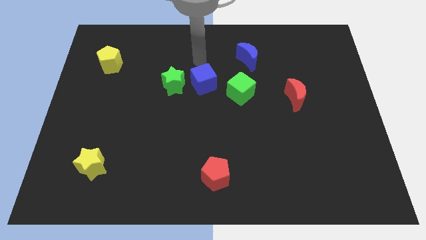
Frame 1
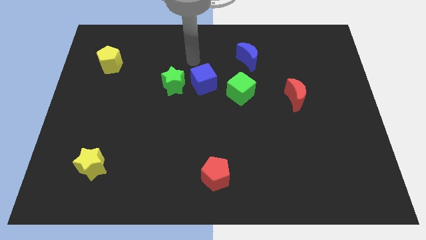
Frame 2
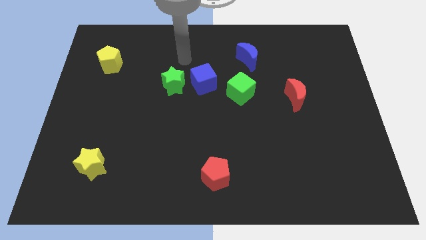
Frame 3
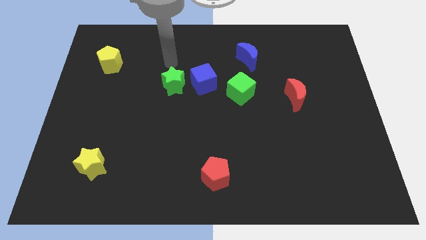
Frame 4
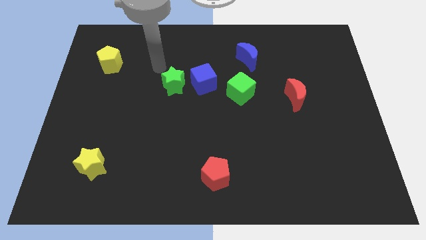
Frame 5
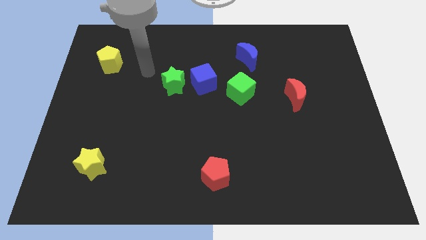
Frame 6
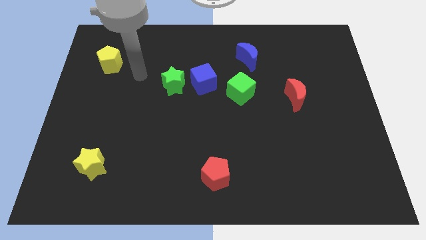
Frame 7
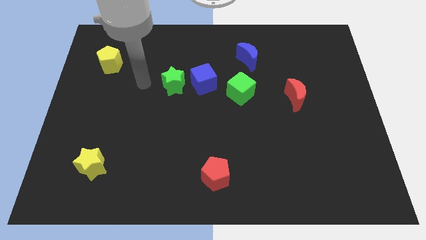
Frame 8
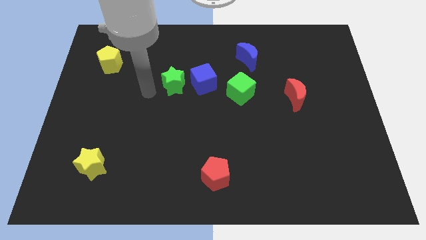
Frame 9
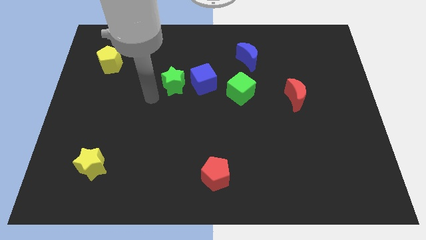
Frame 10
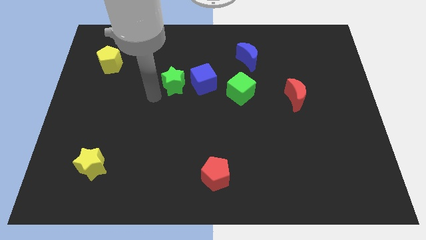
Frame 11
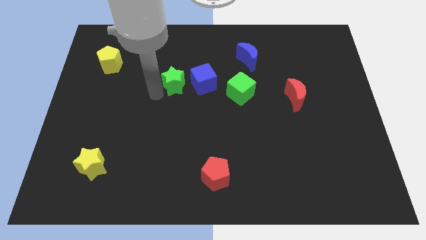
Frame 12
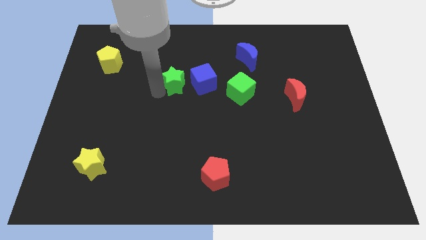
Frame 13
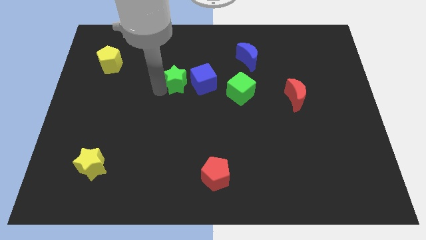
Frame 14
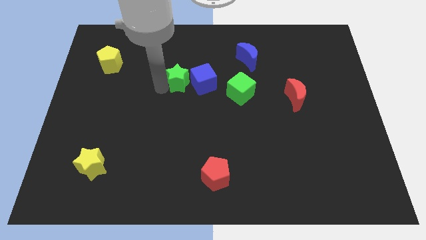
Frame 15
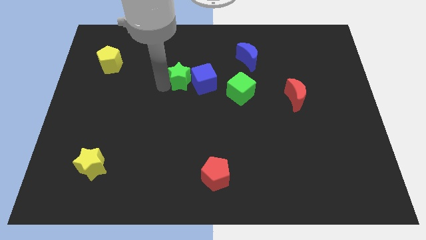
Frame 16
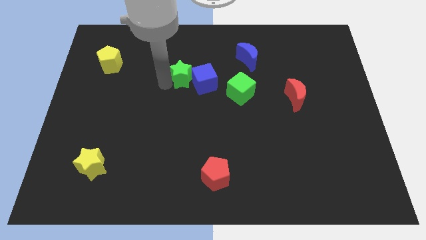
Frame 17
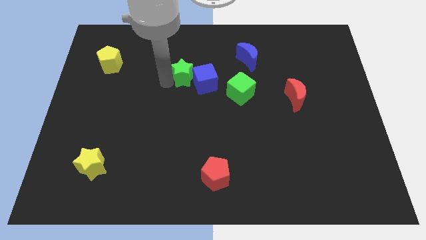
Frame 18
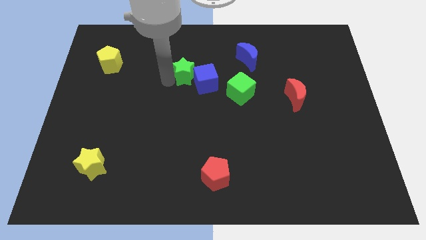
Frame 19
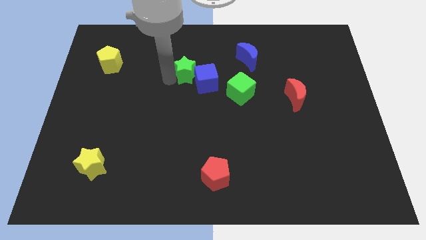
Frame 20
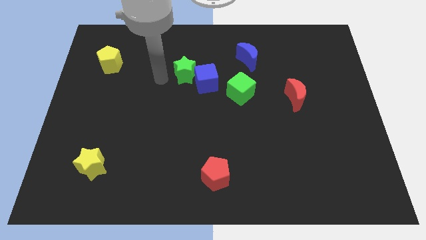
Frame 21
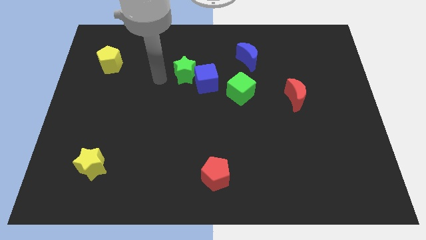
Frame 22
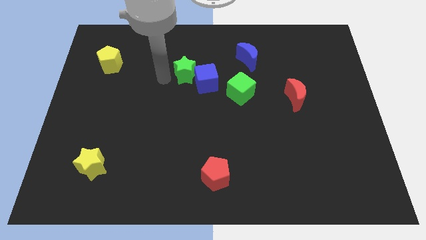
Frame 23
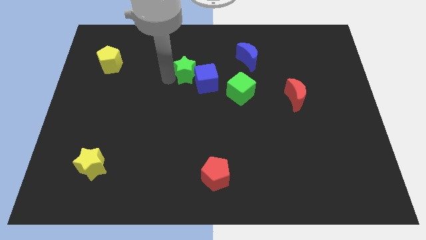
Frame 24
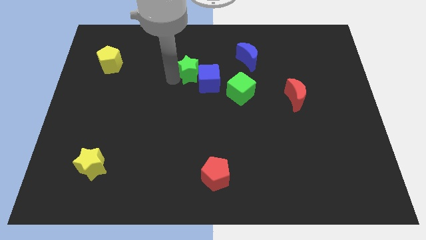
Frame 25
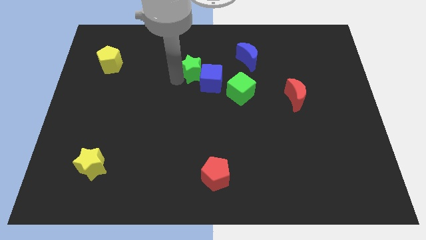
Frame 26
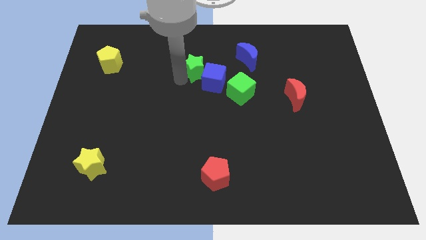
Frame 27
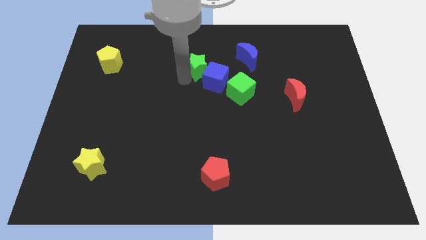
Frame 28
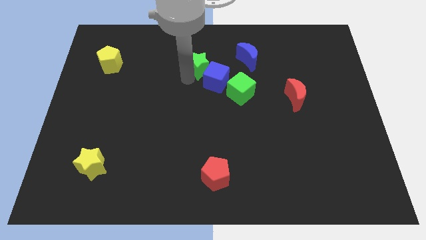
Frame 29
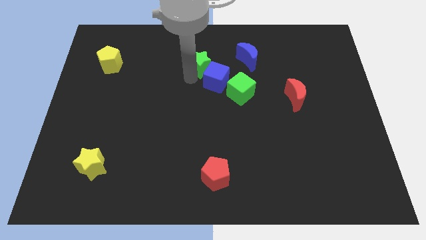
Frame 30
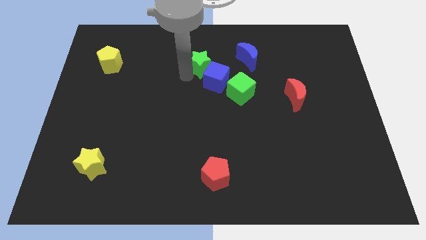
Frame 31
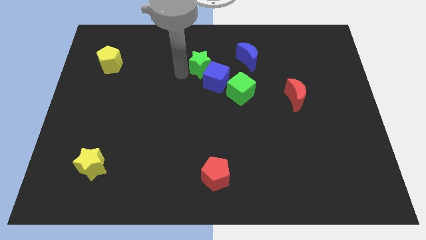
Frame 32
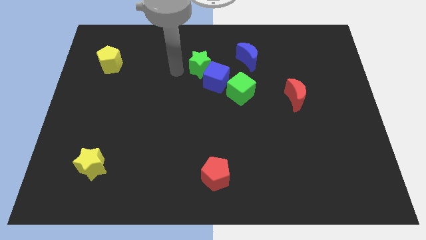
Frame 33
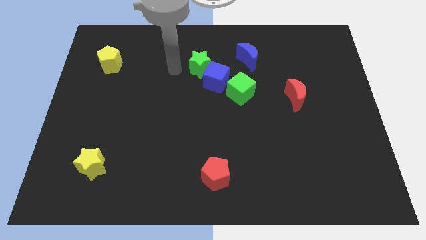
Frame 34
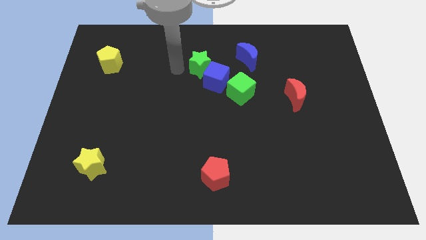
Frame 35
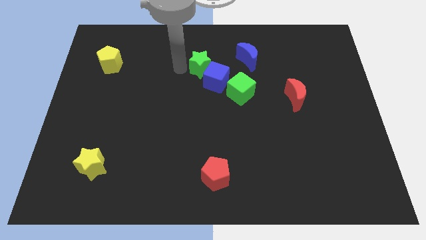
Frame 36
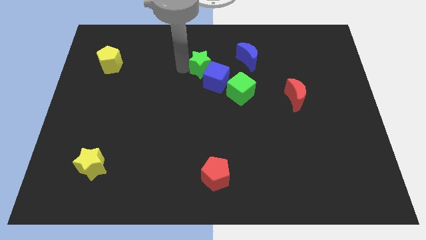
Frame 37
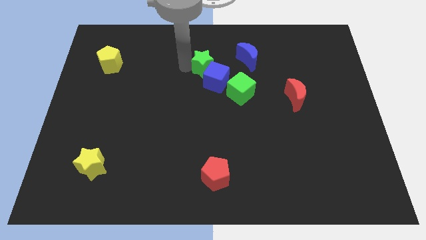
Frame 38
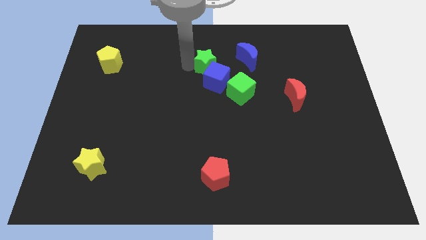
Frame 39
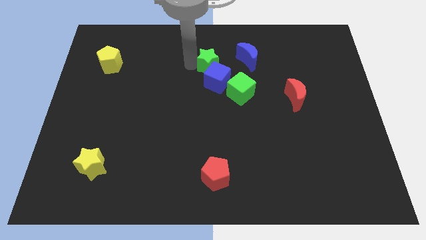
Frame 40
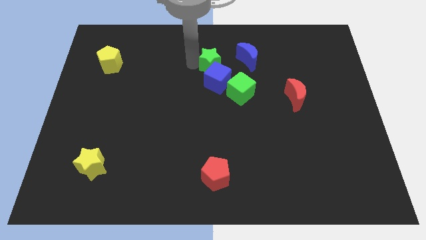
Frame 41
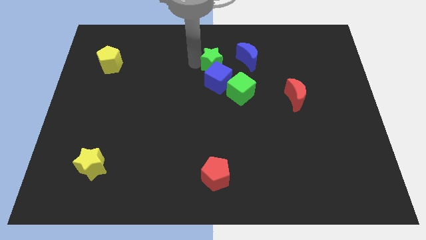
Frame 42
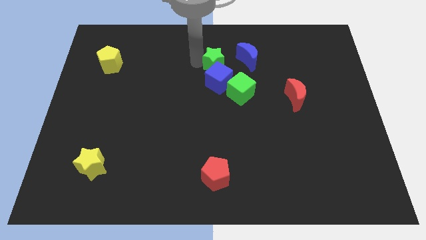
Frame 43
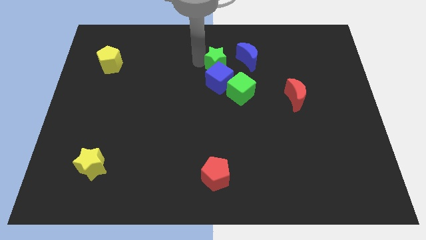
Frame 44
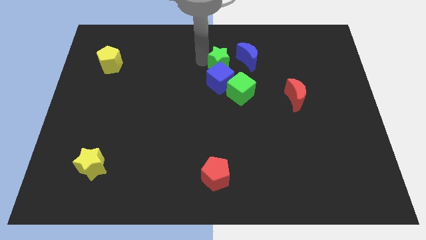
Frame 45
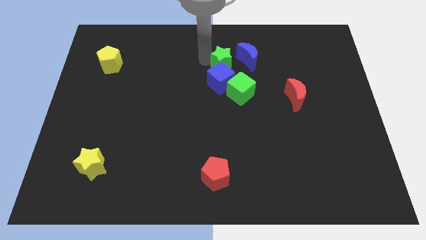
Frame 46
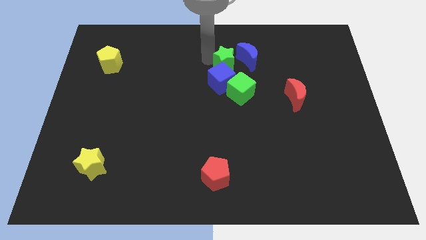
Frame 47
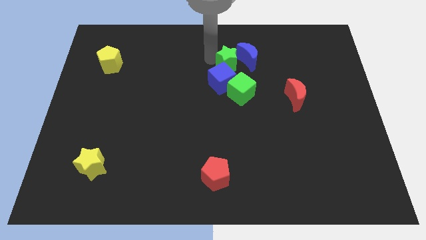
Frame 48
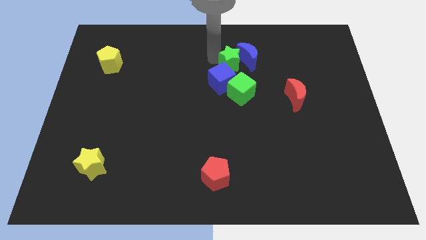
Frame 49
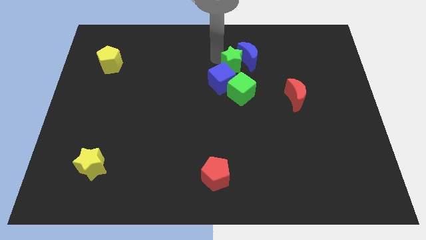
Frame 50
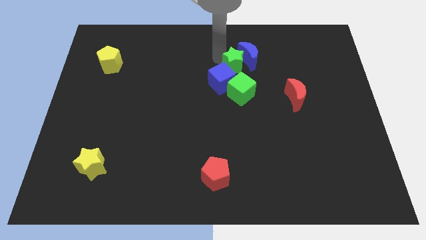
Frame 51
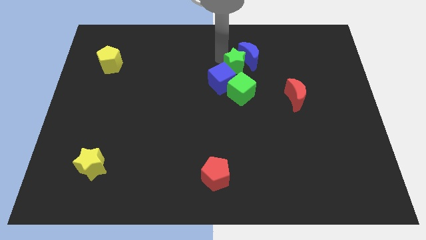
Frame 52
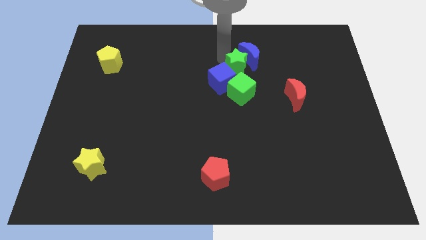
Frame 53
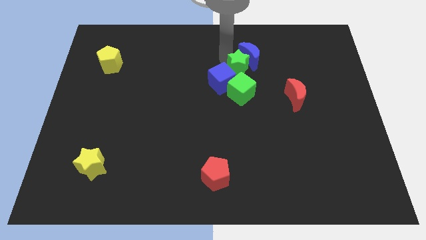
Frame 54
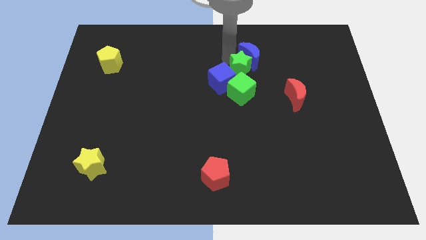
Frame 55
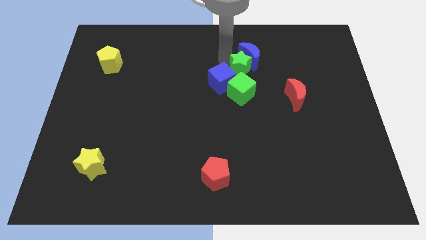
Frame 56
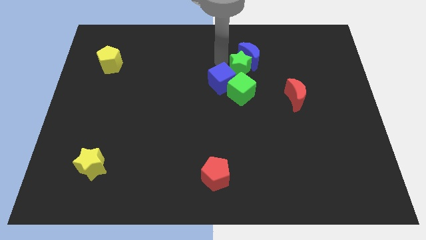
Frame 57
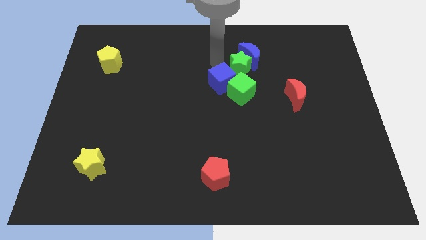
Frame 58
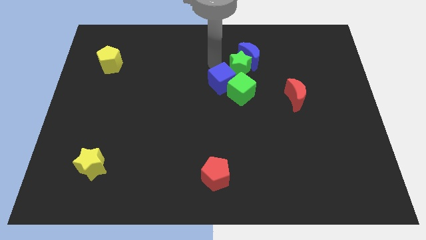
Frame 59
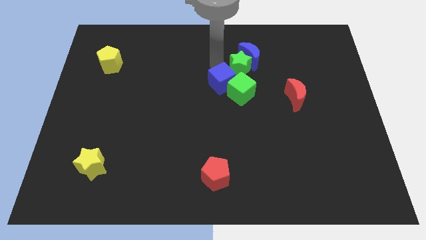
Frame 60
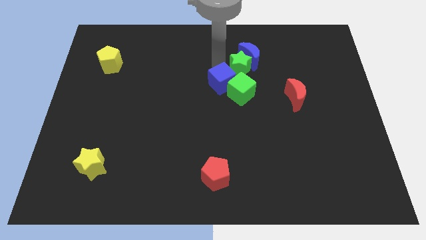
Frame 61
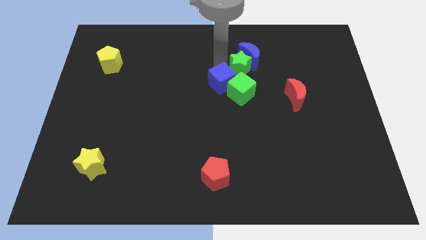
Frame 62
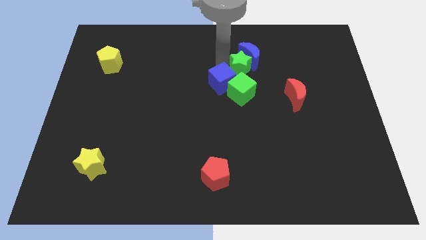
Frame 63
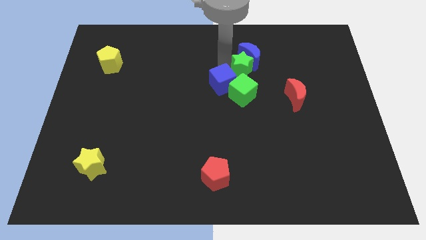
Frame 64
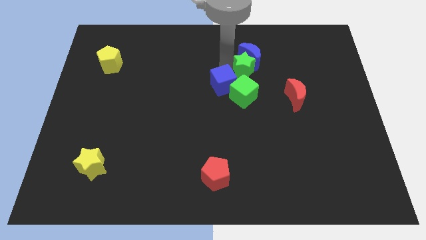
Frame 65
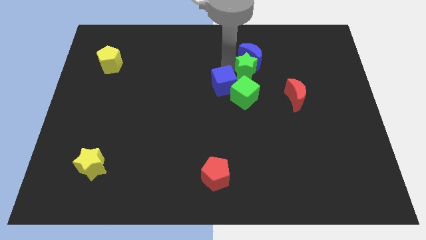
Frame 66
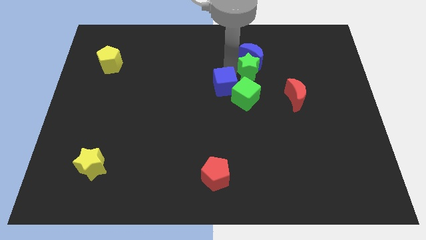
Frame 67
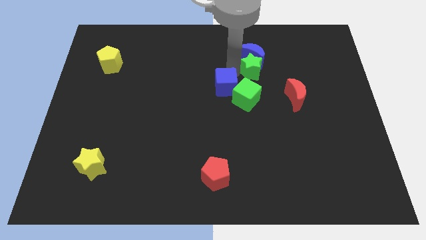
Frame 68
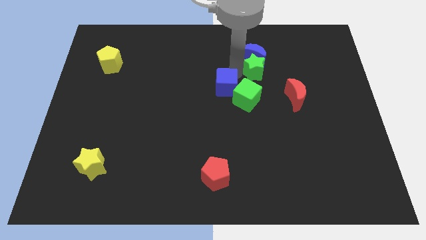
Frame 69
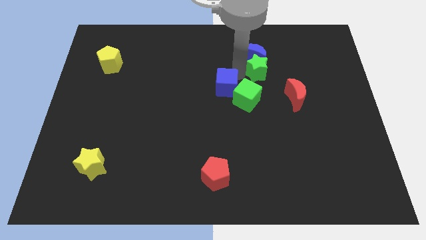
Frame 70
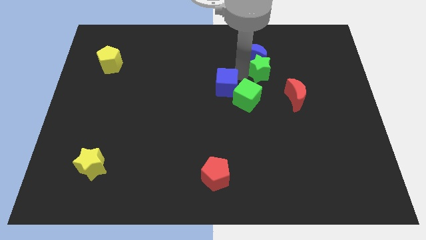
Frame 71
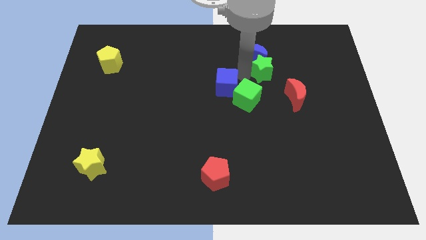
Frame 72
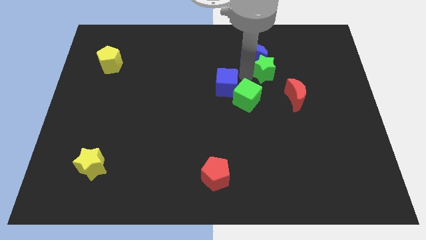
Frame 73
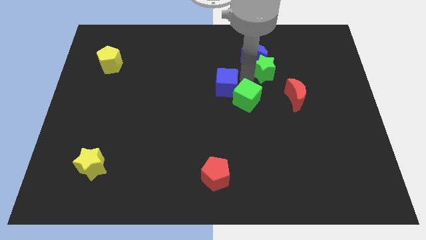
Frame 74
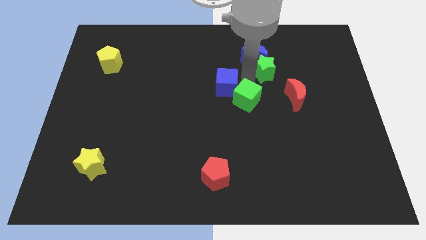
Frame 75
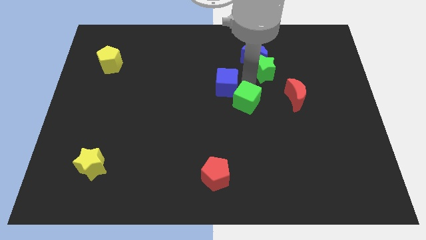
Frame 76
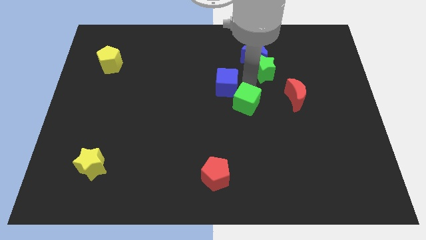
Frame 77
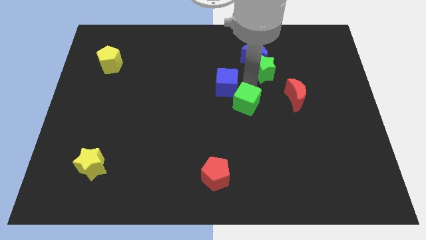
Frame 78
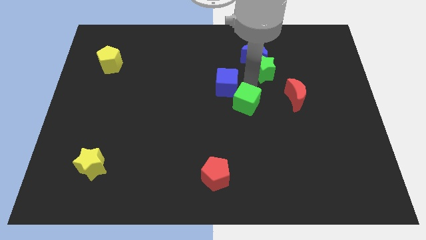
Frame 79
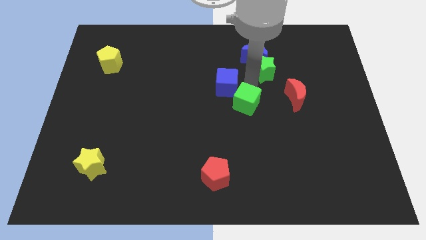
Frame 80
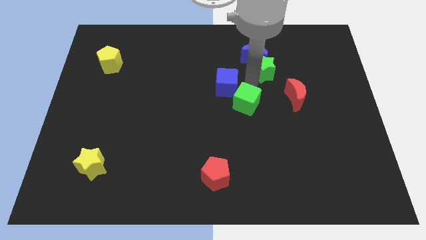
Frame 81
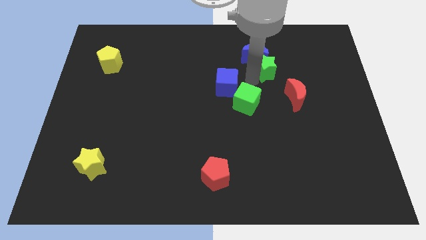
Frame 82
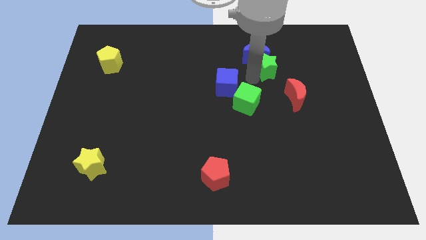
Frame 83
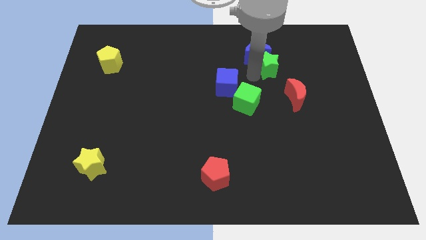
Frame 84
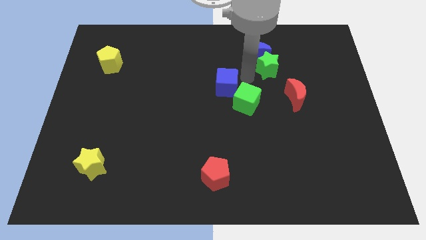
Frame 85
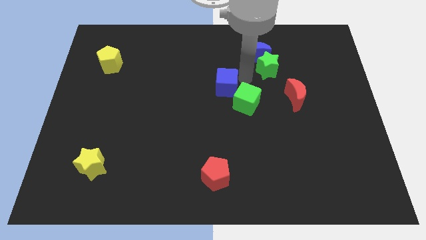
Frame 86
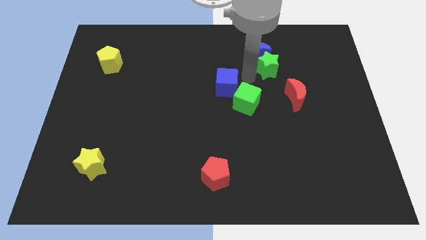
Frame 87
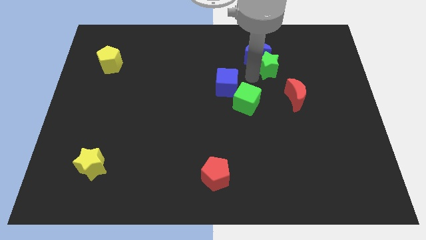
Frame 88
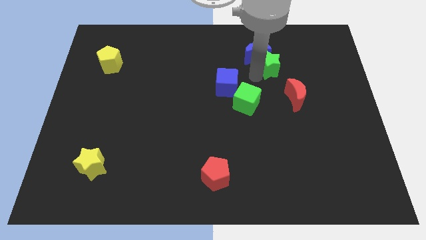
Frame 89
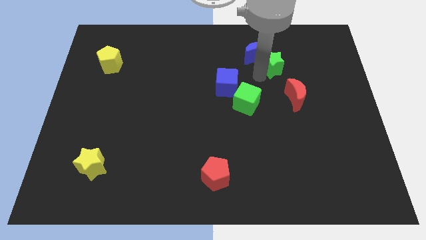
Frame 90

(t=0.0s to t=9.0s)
put the green star to the right side of the blue moon
